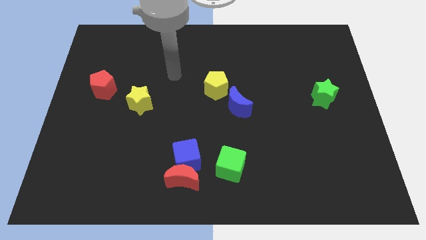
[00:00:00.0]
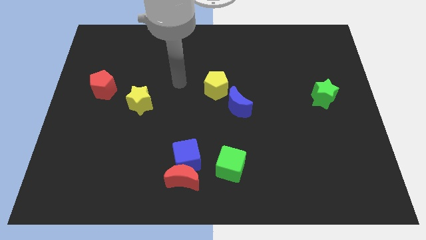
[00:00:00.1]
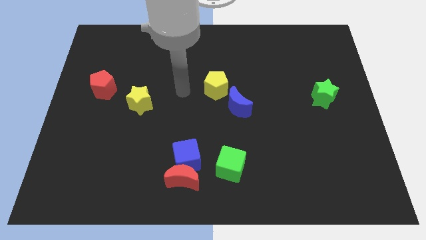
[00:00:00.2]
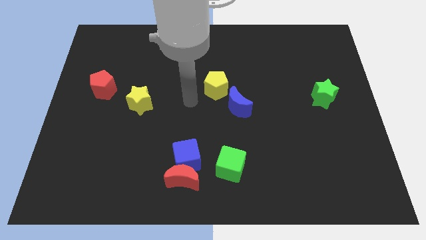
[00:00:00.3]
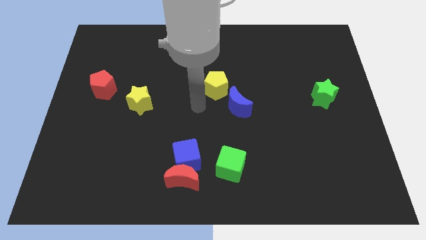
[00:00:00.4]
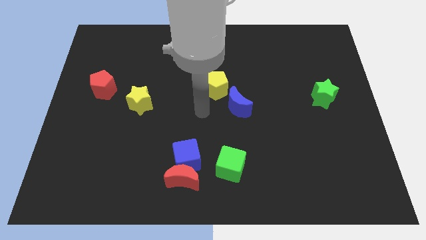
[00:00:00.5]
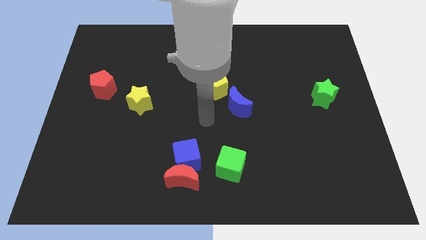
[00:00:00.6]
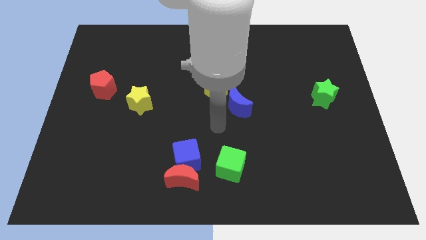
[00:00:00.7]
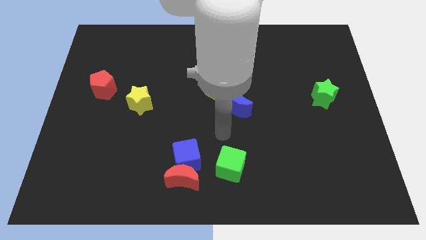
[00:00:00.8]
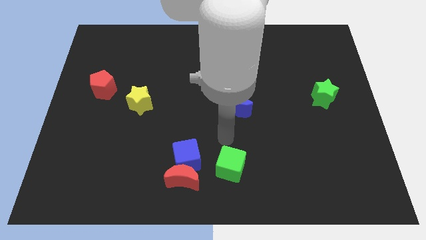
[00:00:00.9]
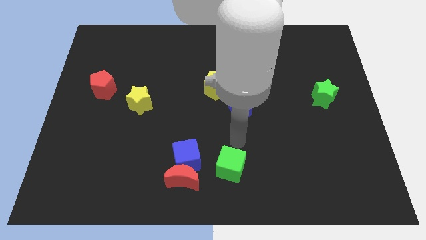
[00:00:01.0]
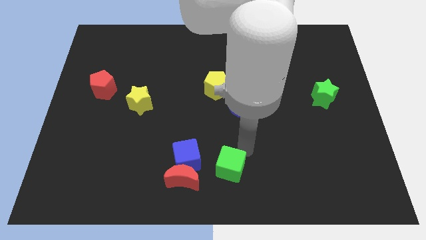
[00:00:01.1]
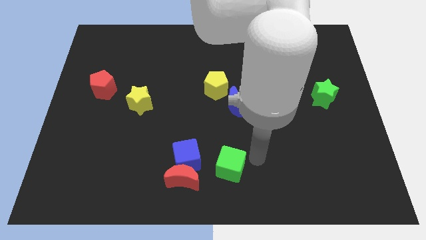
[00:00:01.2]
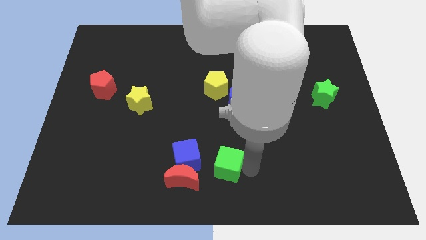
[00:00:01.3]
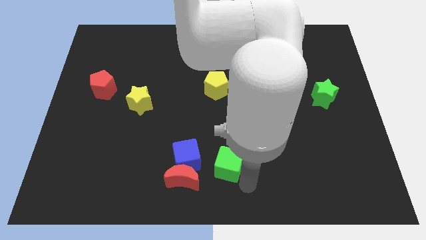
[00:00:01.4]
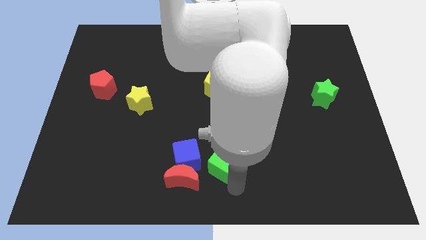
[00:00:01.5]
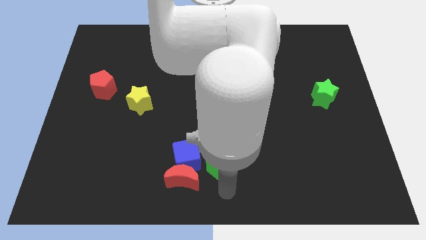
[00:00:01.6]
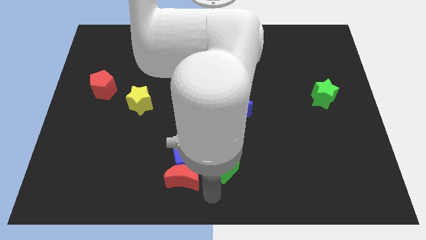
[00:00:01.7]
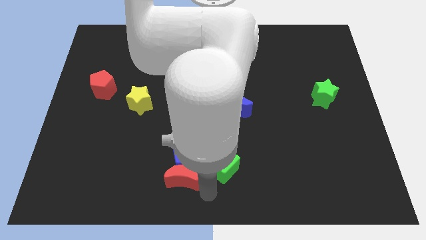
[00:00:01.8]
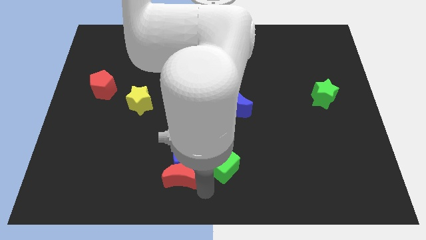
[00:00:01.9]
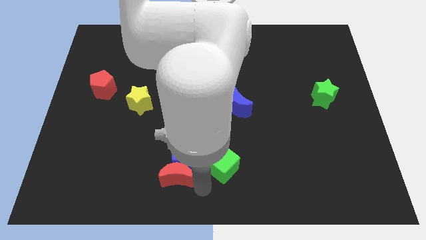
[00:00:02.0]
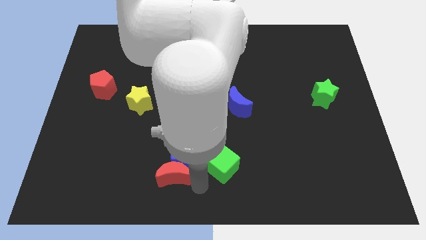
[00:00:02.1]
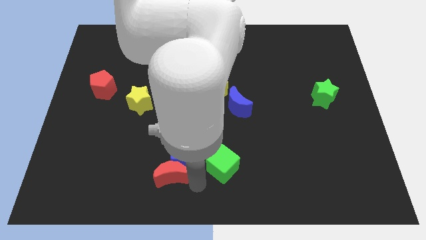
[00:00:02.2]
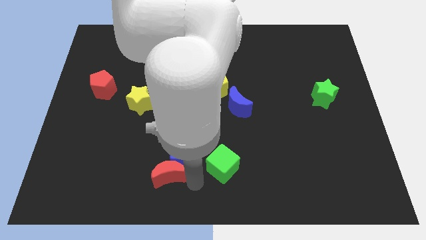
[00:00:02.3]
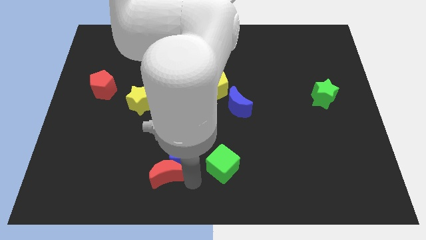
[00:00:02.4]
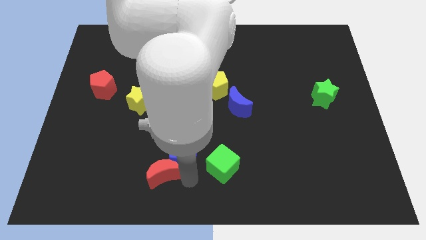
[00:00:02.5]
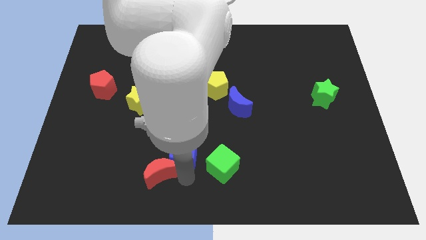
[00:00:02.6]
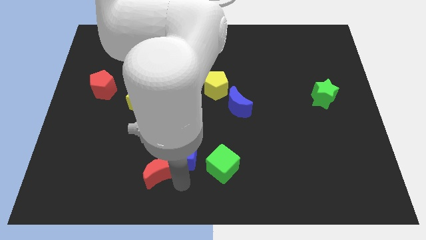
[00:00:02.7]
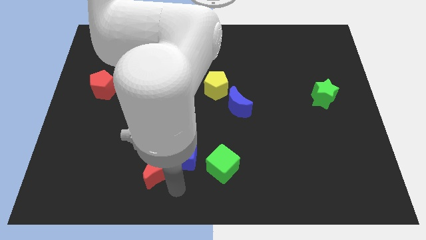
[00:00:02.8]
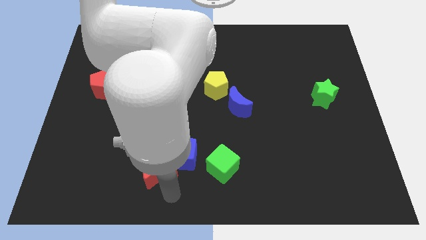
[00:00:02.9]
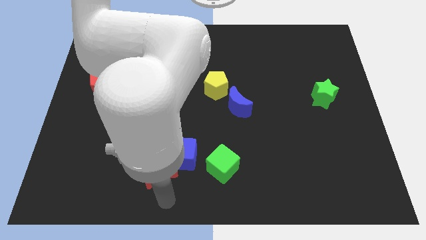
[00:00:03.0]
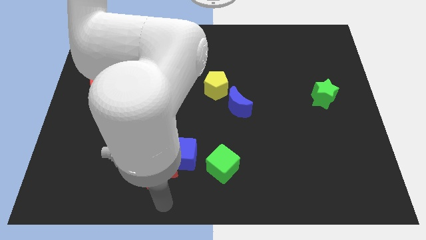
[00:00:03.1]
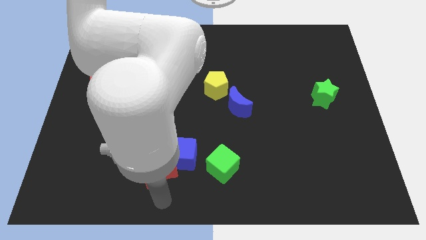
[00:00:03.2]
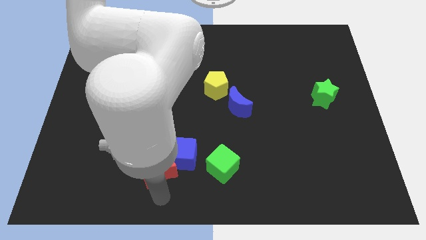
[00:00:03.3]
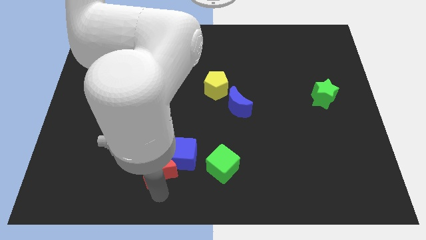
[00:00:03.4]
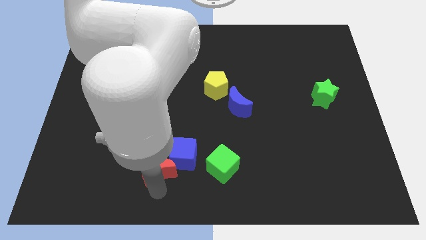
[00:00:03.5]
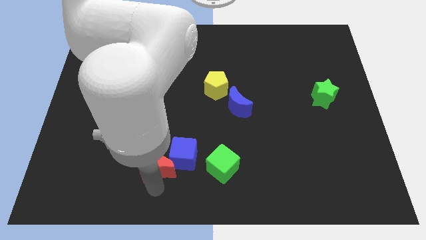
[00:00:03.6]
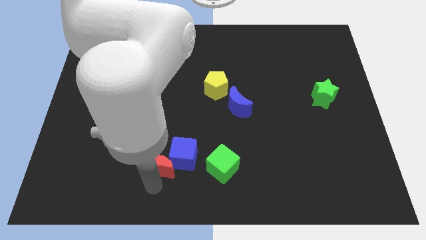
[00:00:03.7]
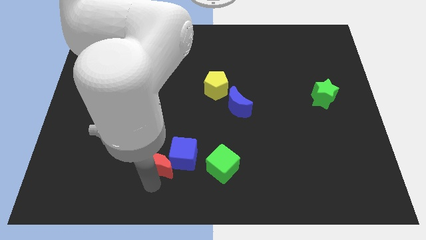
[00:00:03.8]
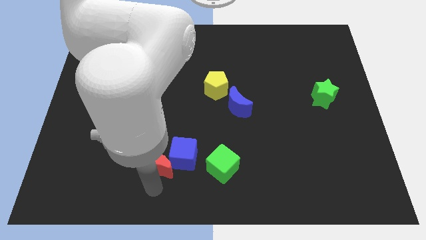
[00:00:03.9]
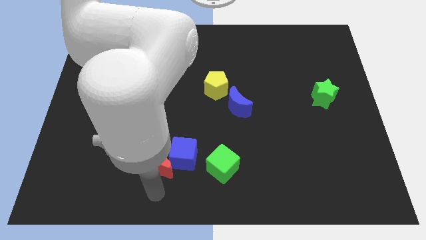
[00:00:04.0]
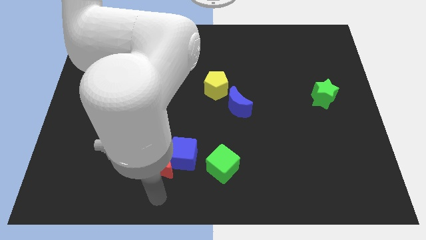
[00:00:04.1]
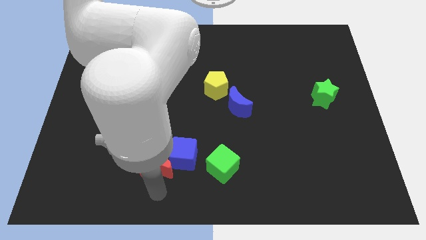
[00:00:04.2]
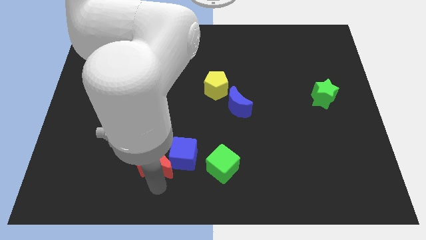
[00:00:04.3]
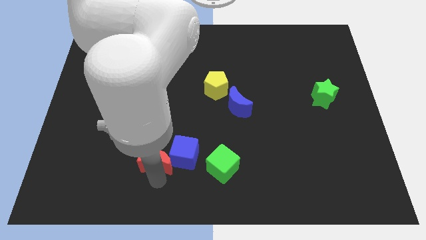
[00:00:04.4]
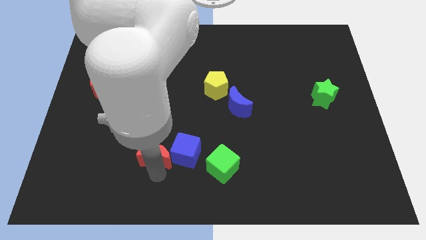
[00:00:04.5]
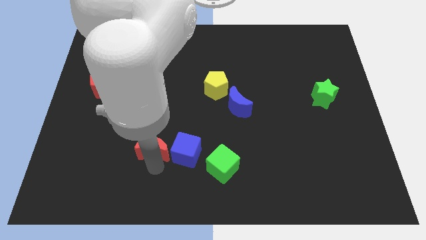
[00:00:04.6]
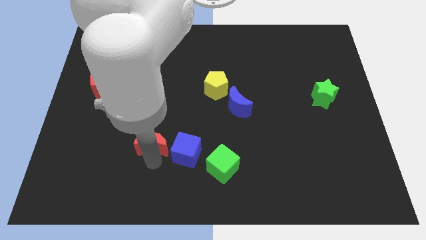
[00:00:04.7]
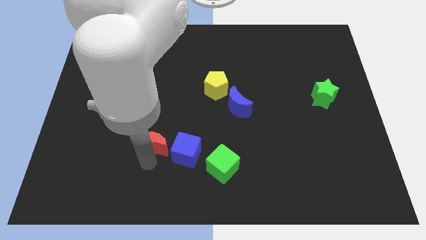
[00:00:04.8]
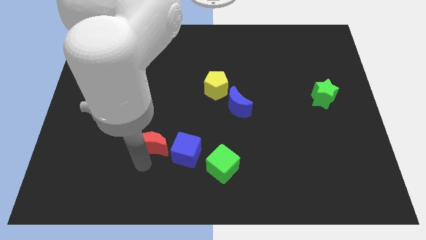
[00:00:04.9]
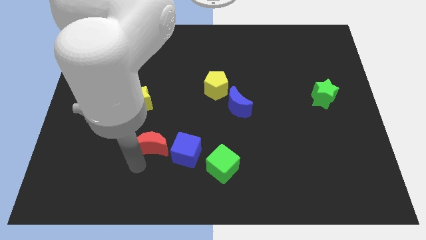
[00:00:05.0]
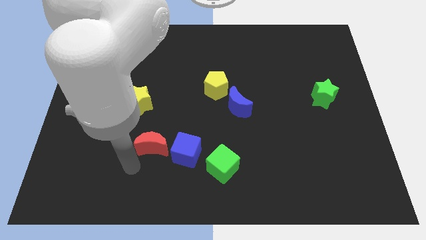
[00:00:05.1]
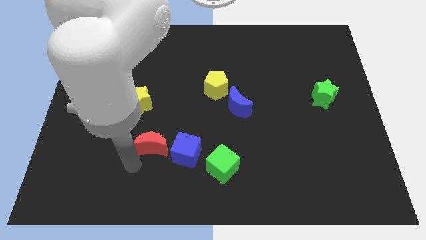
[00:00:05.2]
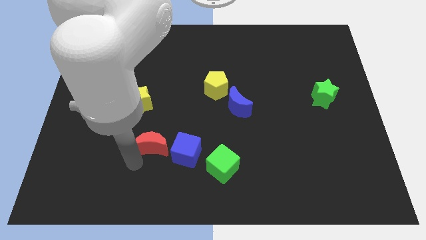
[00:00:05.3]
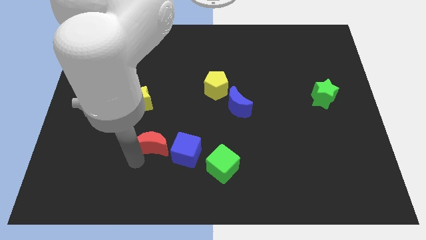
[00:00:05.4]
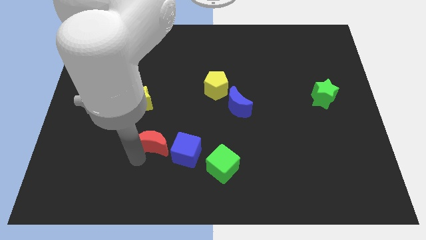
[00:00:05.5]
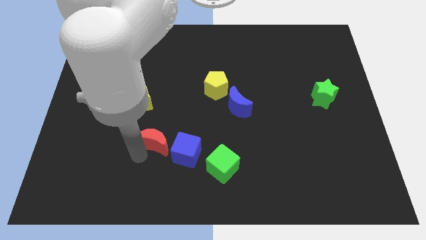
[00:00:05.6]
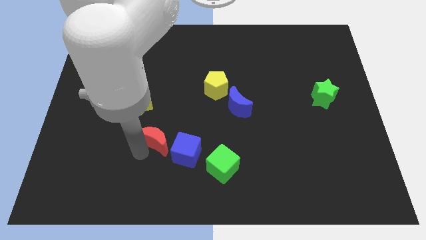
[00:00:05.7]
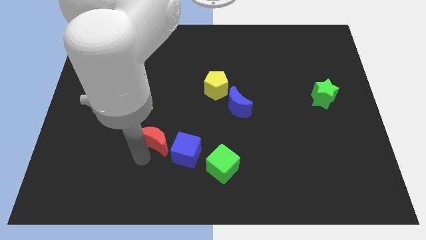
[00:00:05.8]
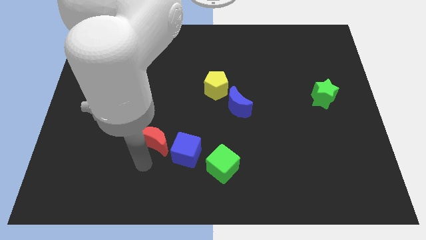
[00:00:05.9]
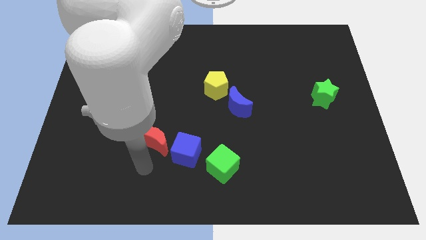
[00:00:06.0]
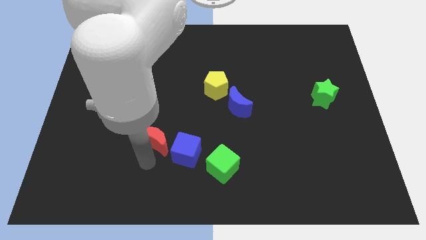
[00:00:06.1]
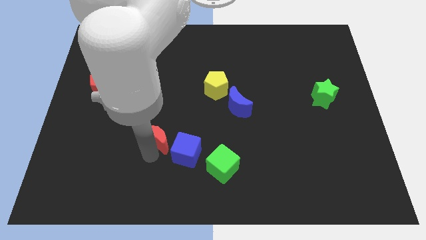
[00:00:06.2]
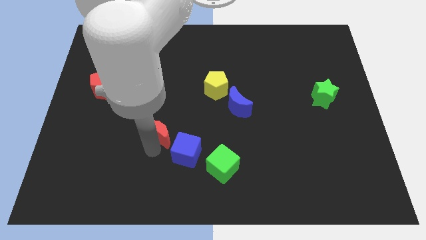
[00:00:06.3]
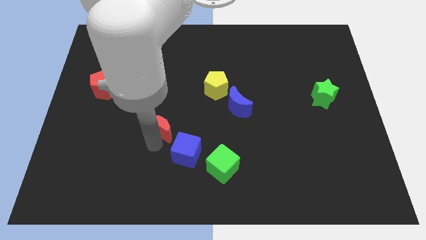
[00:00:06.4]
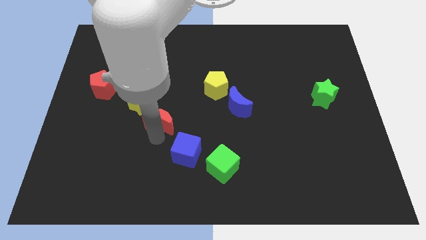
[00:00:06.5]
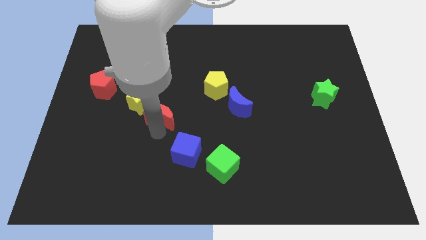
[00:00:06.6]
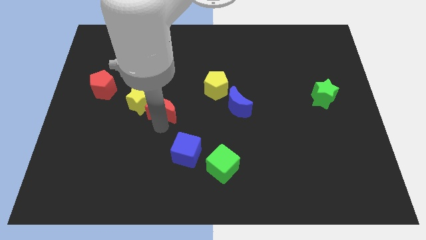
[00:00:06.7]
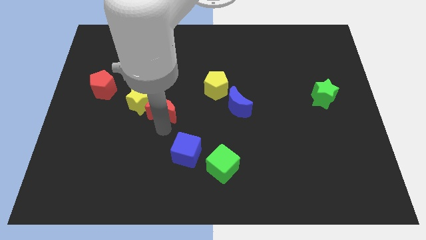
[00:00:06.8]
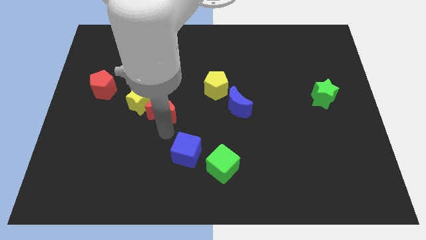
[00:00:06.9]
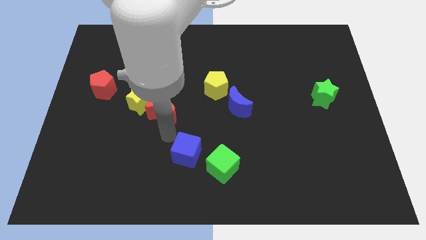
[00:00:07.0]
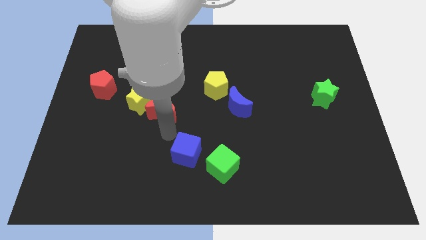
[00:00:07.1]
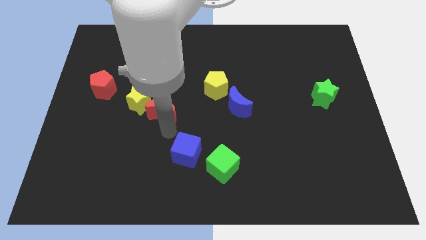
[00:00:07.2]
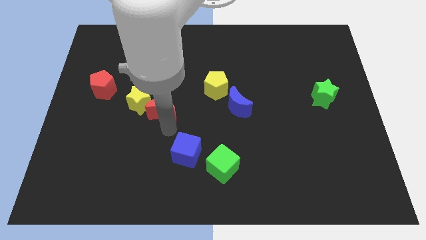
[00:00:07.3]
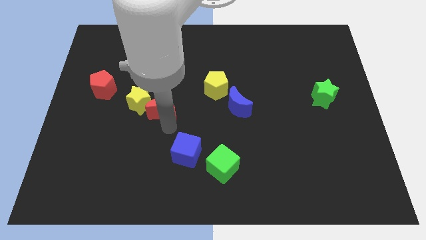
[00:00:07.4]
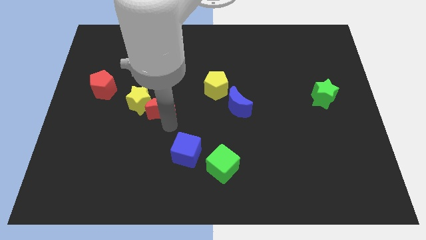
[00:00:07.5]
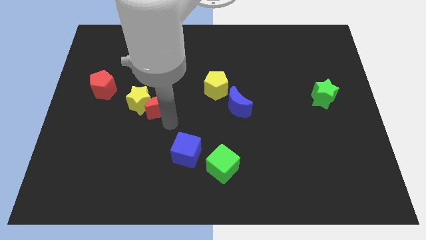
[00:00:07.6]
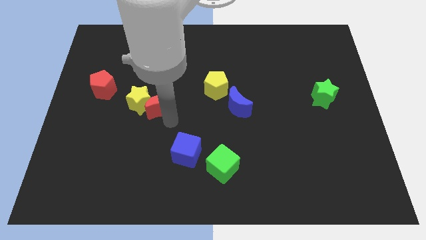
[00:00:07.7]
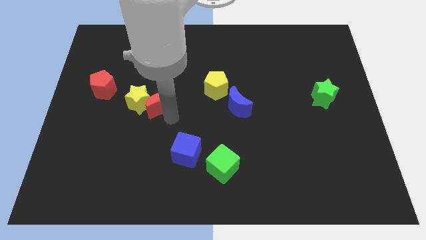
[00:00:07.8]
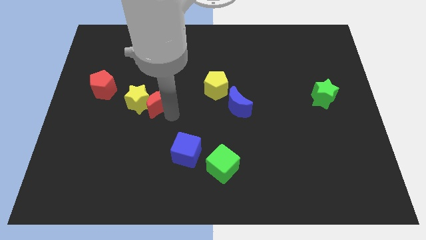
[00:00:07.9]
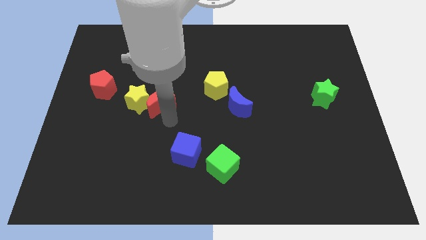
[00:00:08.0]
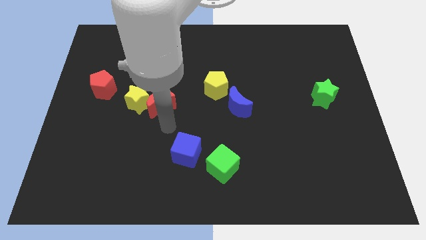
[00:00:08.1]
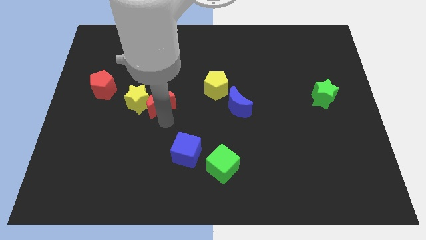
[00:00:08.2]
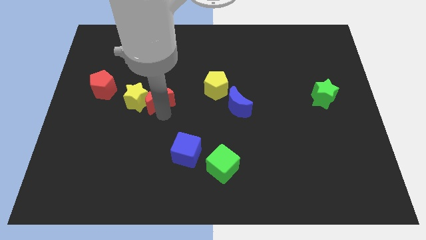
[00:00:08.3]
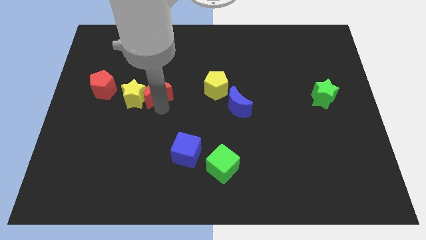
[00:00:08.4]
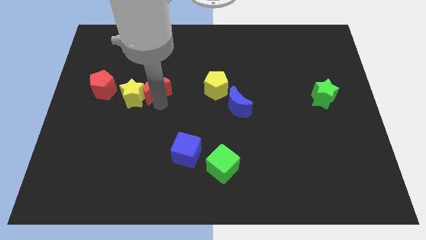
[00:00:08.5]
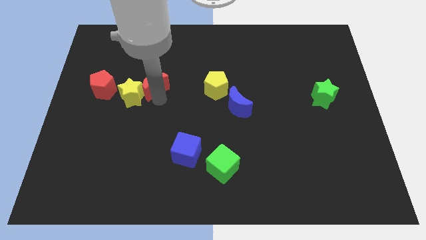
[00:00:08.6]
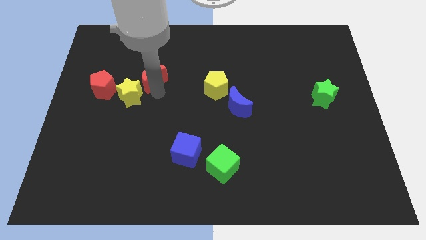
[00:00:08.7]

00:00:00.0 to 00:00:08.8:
move the red moon to the top side of the yellow star
